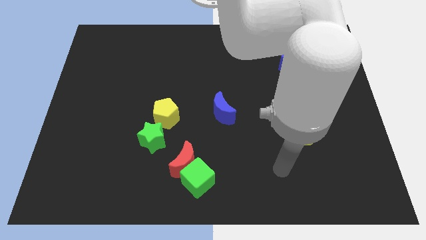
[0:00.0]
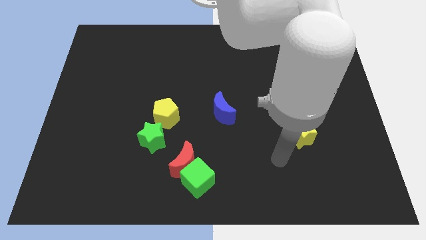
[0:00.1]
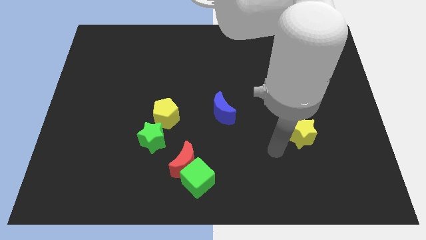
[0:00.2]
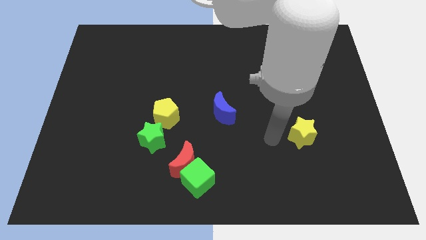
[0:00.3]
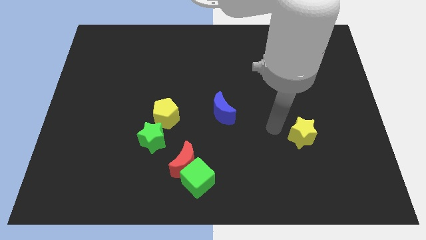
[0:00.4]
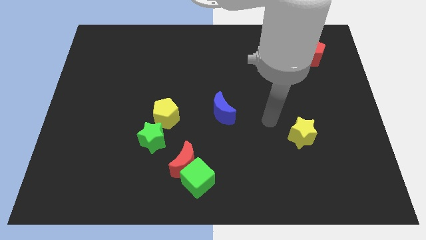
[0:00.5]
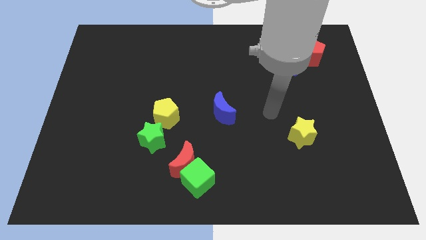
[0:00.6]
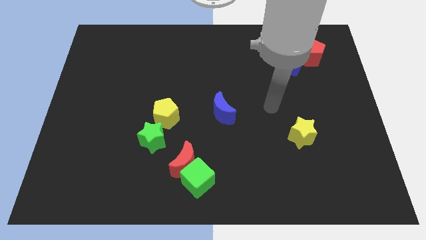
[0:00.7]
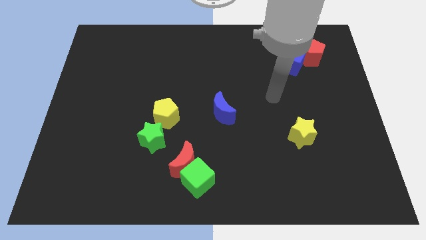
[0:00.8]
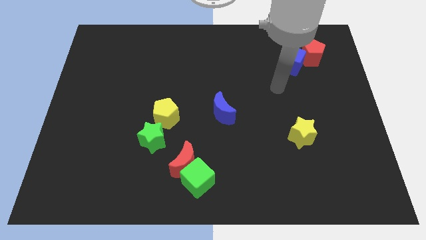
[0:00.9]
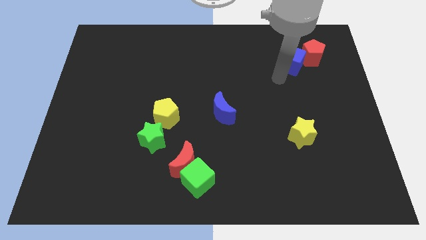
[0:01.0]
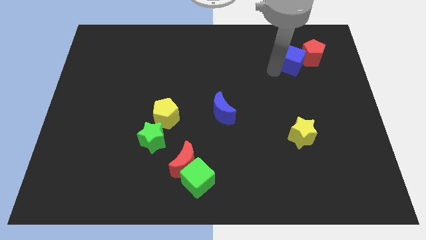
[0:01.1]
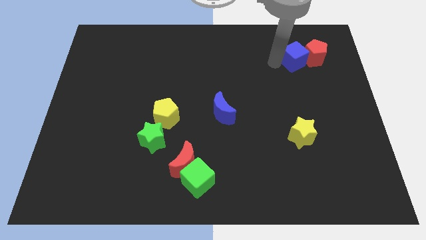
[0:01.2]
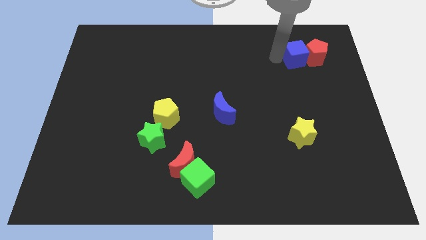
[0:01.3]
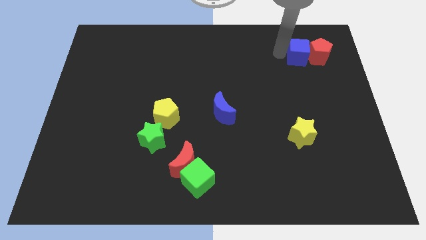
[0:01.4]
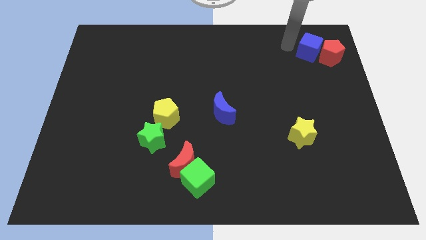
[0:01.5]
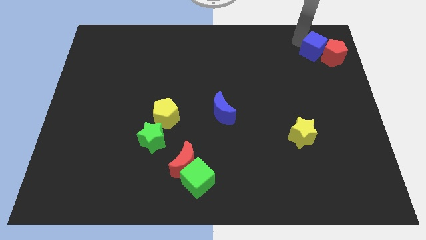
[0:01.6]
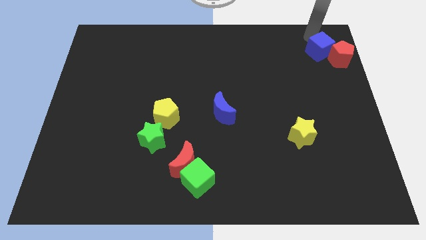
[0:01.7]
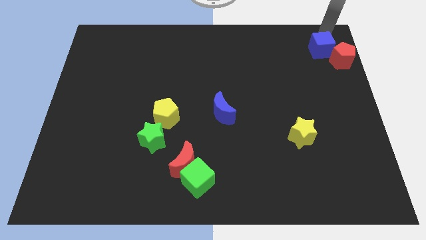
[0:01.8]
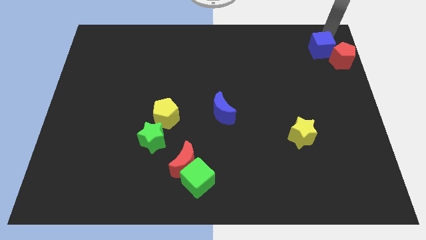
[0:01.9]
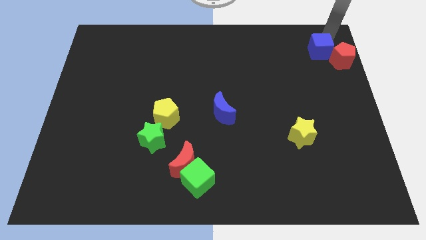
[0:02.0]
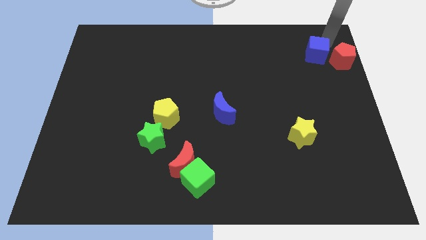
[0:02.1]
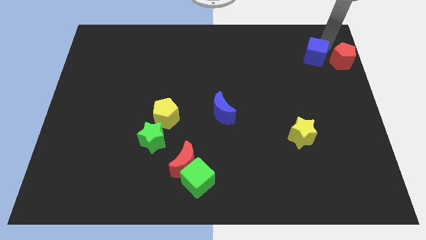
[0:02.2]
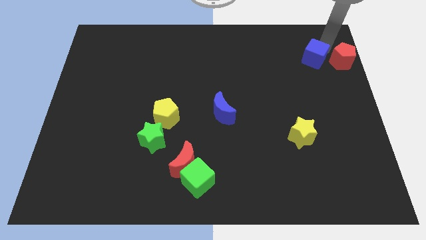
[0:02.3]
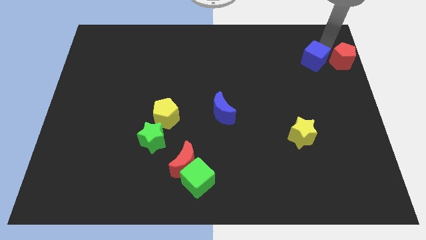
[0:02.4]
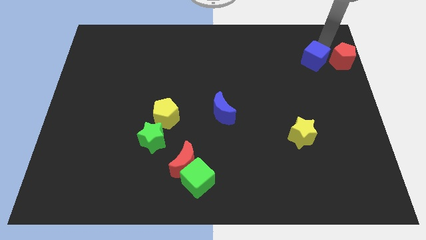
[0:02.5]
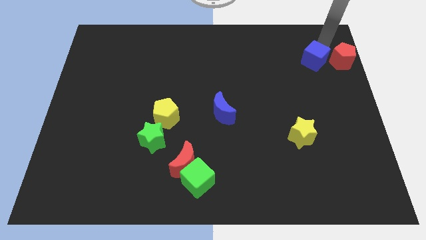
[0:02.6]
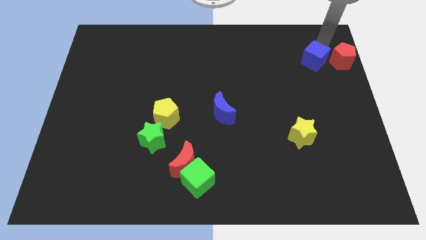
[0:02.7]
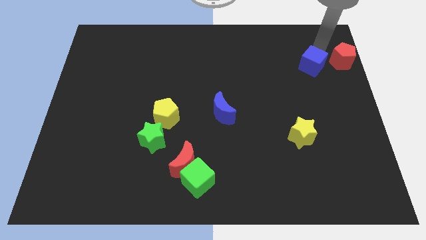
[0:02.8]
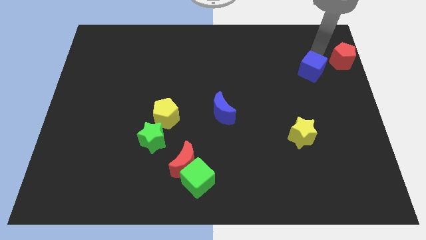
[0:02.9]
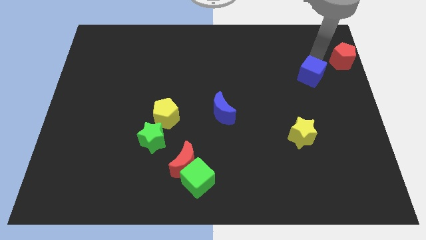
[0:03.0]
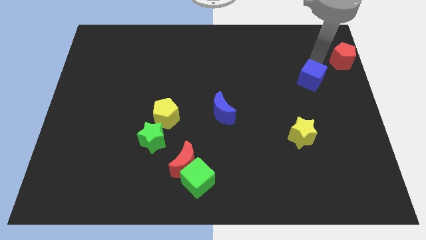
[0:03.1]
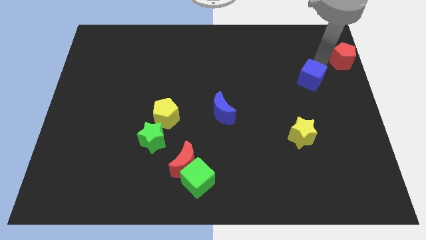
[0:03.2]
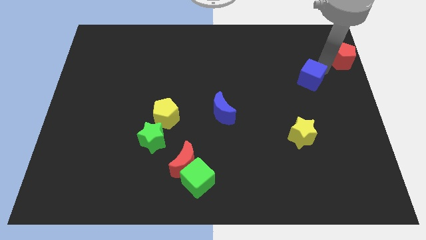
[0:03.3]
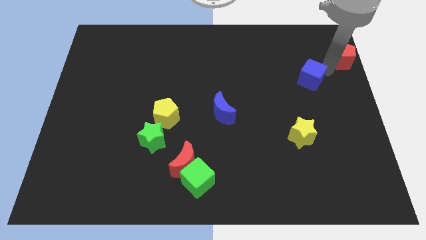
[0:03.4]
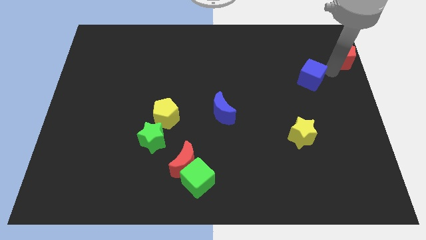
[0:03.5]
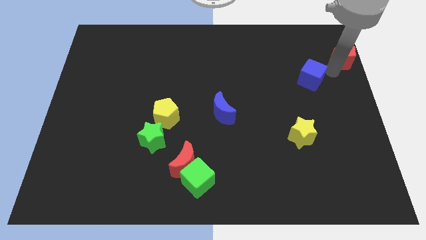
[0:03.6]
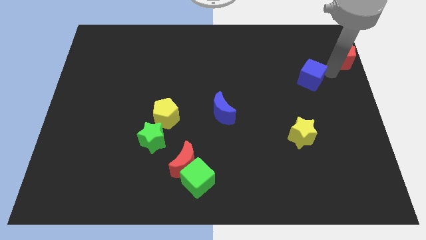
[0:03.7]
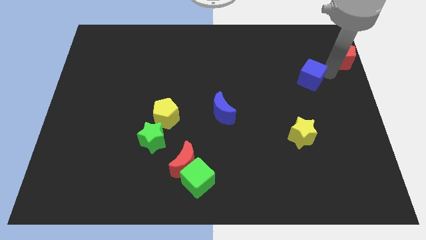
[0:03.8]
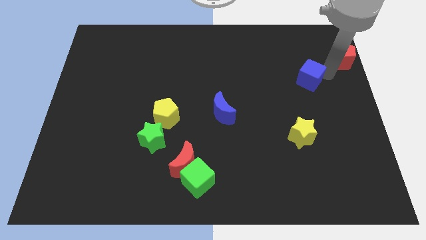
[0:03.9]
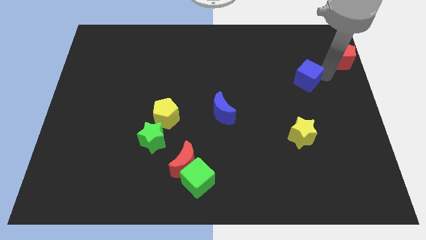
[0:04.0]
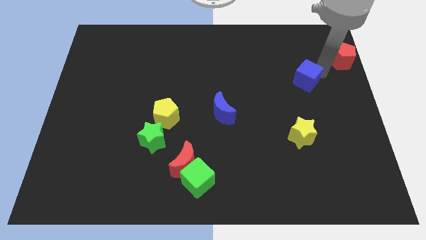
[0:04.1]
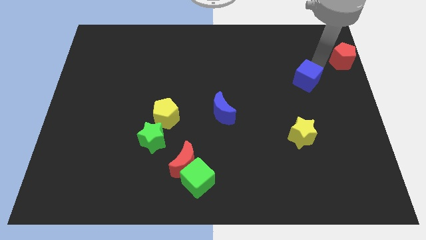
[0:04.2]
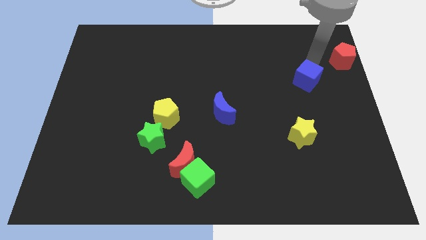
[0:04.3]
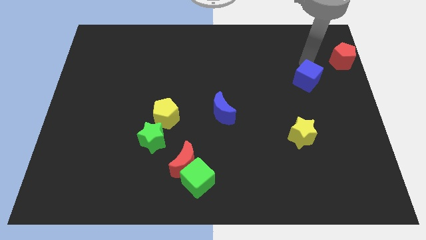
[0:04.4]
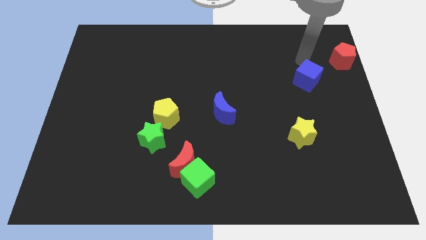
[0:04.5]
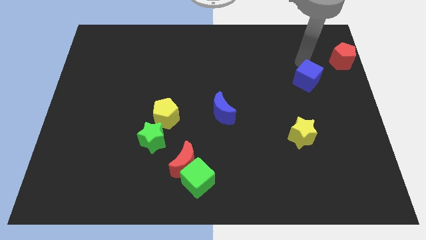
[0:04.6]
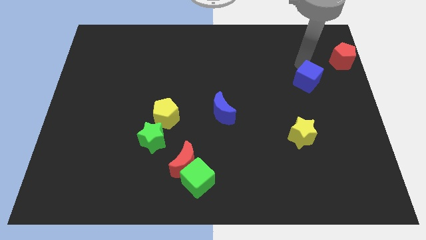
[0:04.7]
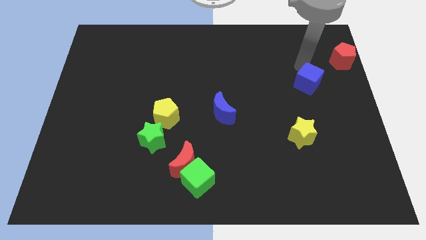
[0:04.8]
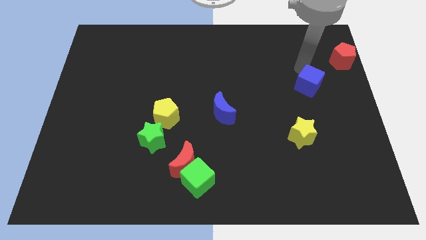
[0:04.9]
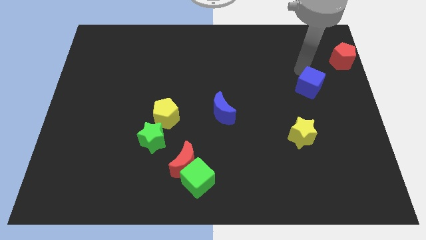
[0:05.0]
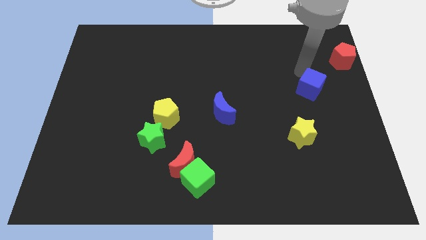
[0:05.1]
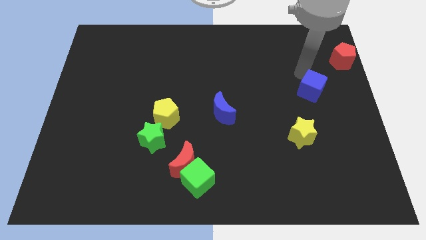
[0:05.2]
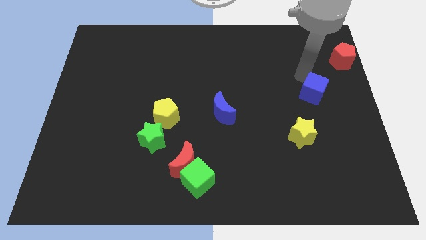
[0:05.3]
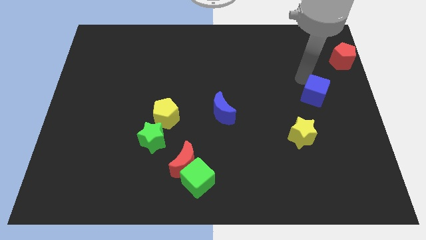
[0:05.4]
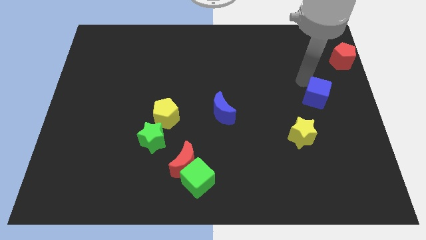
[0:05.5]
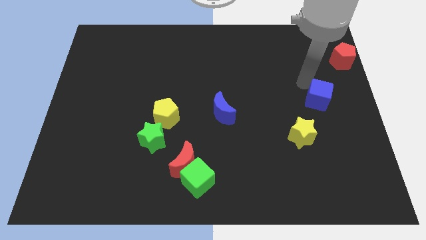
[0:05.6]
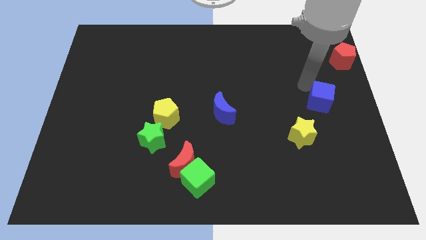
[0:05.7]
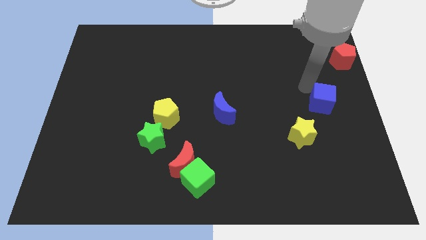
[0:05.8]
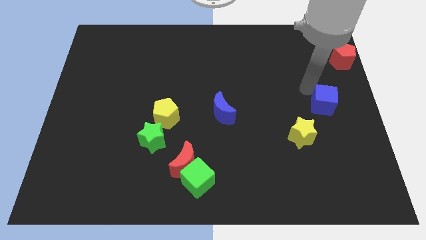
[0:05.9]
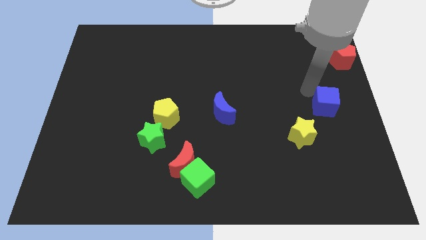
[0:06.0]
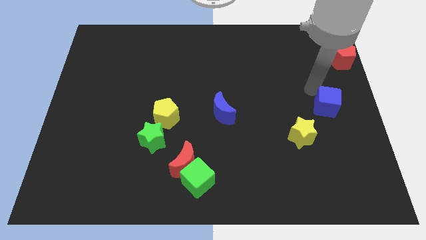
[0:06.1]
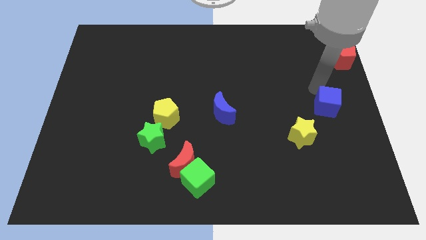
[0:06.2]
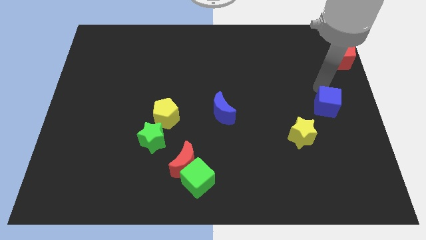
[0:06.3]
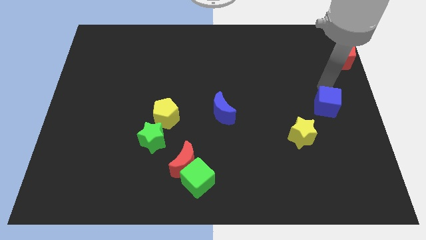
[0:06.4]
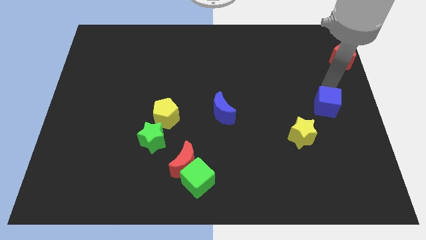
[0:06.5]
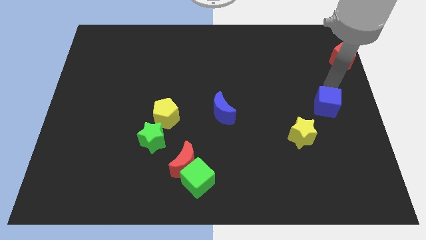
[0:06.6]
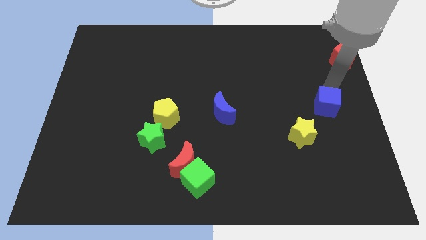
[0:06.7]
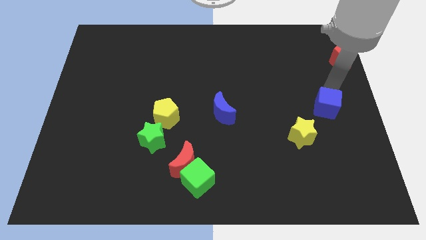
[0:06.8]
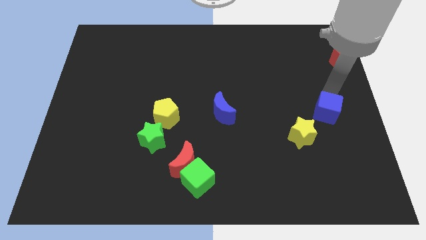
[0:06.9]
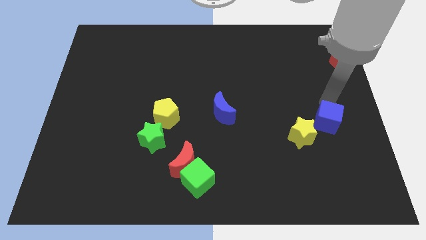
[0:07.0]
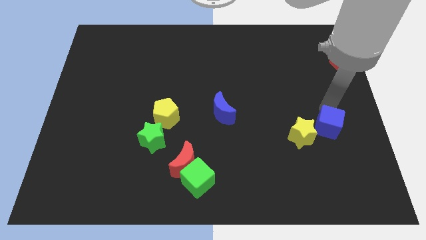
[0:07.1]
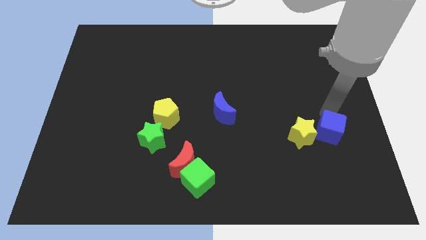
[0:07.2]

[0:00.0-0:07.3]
move the blue cube downwards

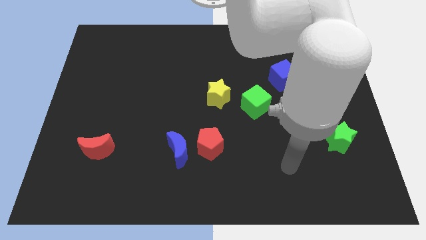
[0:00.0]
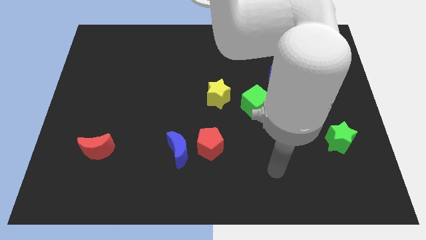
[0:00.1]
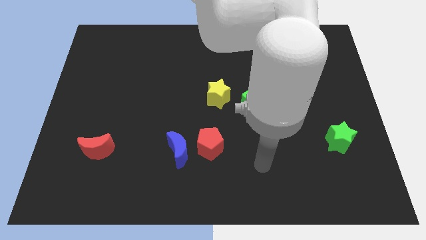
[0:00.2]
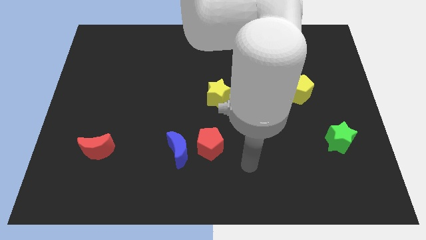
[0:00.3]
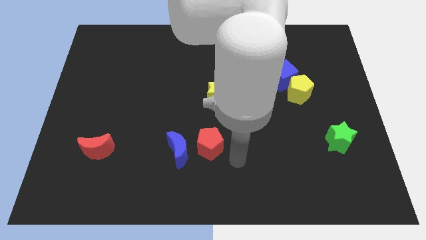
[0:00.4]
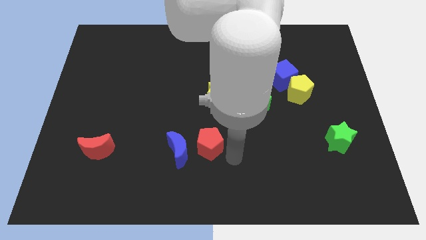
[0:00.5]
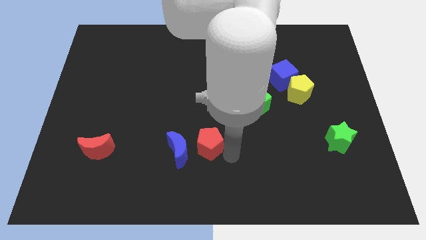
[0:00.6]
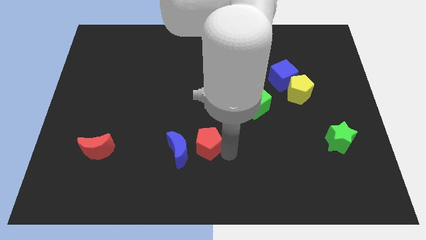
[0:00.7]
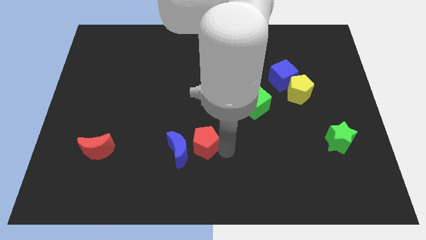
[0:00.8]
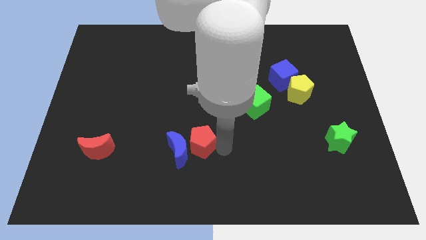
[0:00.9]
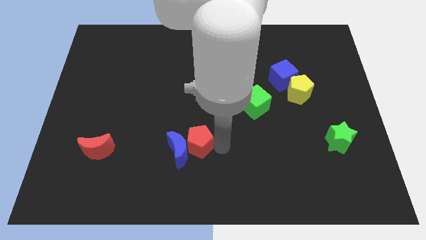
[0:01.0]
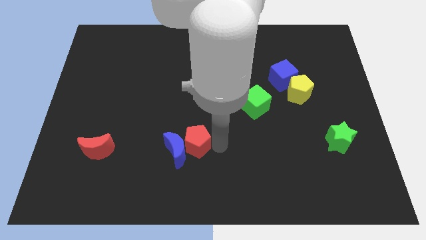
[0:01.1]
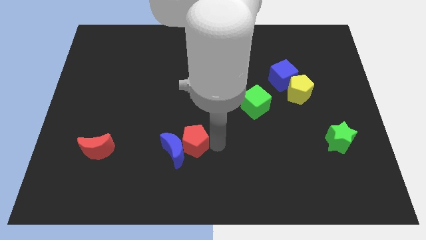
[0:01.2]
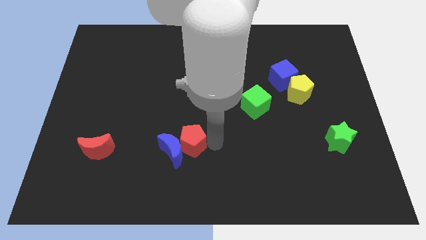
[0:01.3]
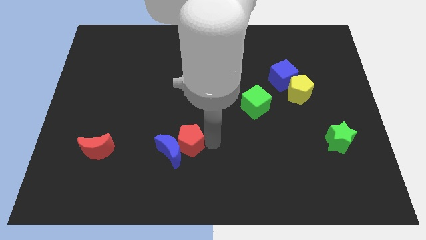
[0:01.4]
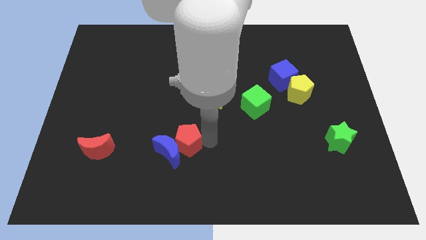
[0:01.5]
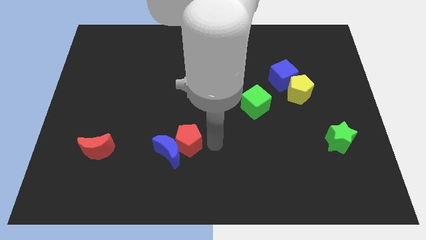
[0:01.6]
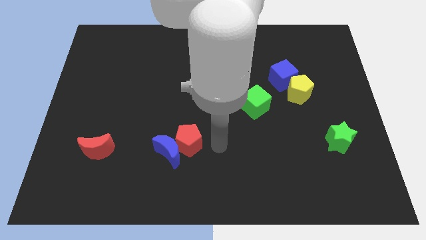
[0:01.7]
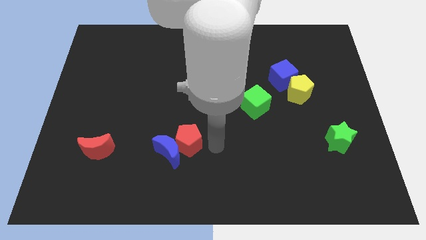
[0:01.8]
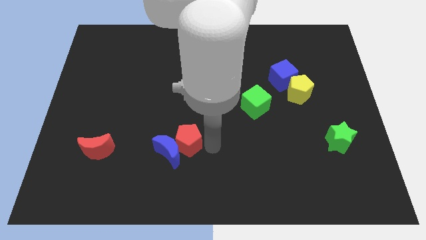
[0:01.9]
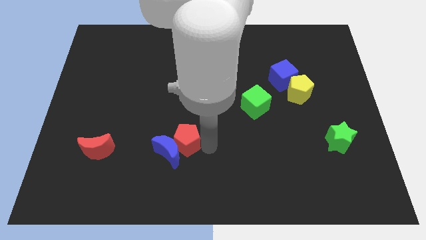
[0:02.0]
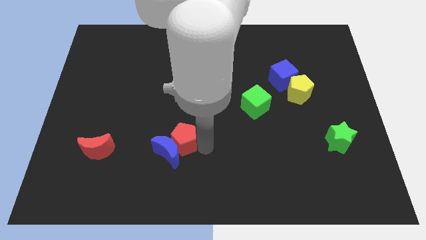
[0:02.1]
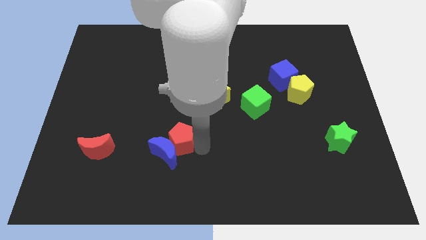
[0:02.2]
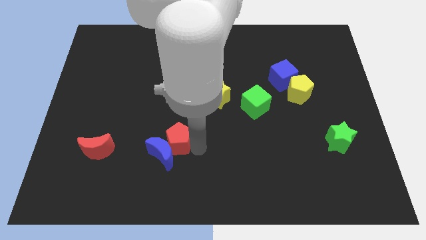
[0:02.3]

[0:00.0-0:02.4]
slightly move the red pentagon to the left
